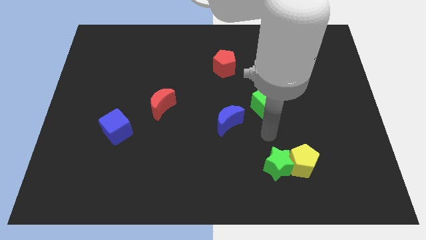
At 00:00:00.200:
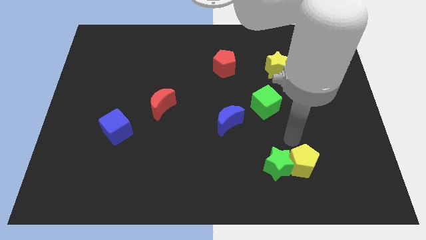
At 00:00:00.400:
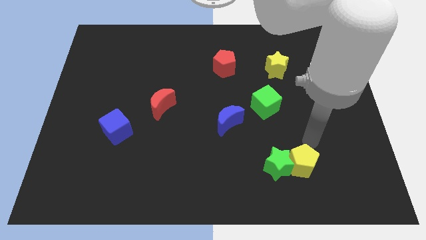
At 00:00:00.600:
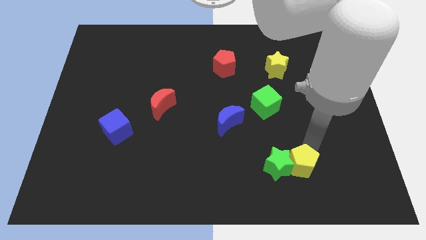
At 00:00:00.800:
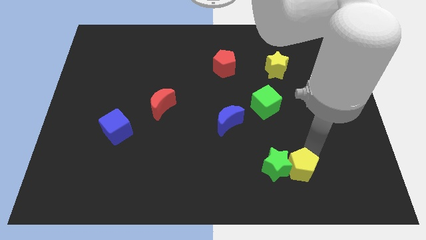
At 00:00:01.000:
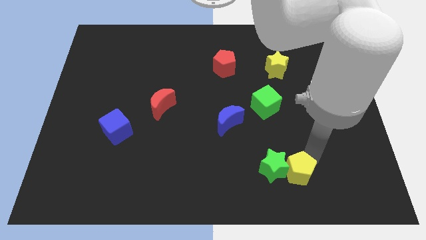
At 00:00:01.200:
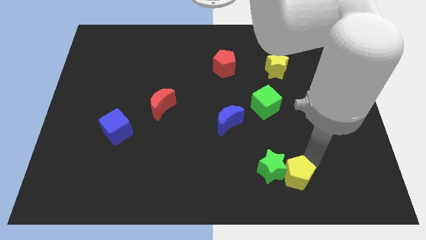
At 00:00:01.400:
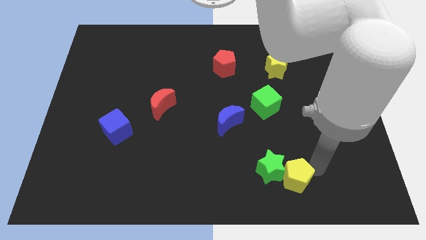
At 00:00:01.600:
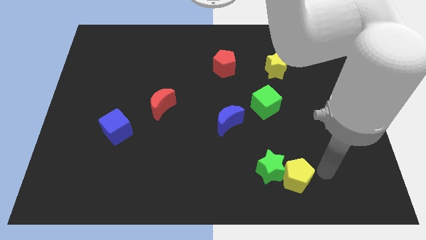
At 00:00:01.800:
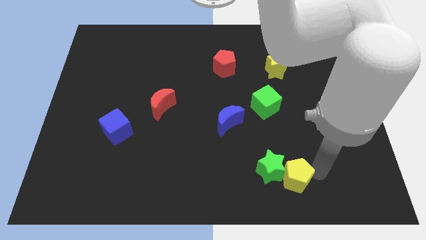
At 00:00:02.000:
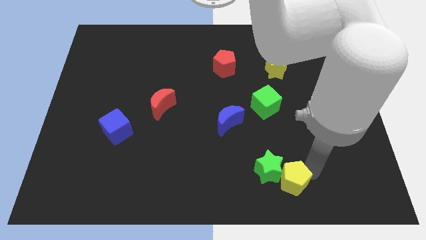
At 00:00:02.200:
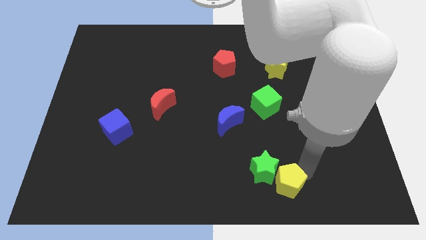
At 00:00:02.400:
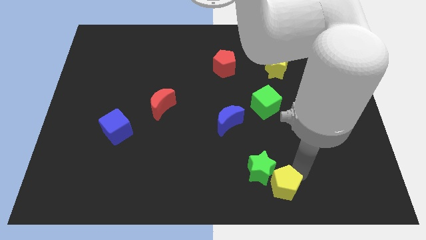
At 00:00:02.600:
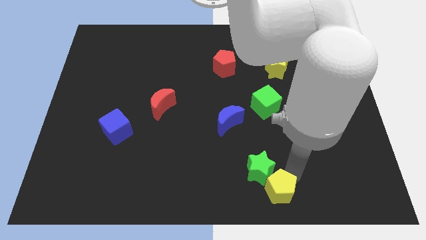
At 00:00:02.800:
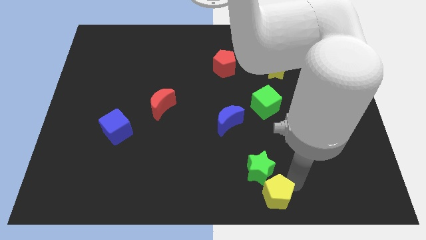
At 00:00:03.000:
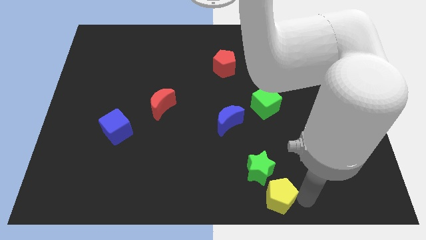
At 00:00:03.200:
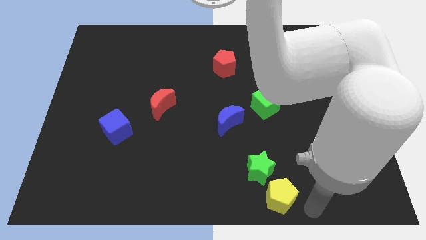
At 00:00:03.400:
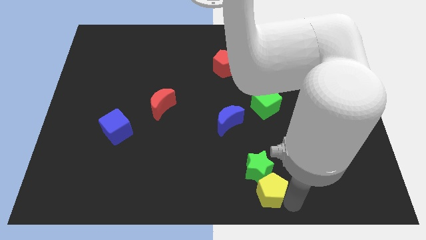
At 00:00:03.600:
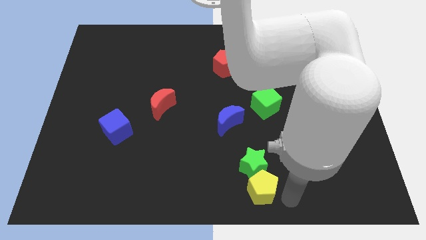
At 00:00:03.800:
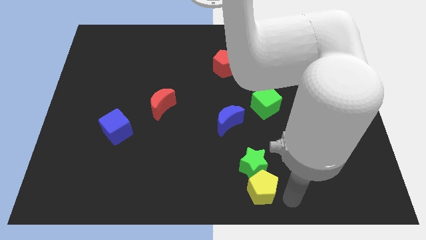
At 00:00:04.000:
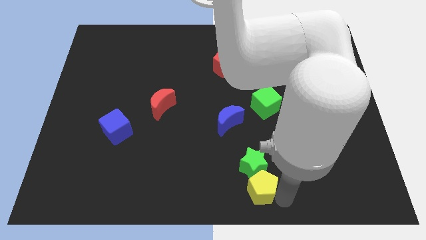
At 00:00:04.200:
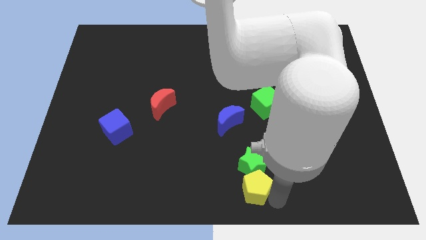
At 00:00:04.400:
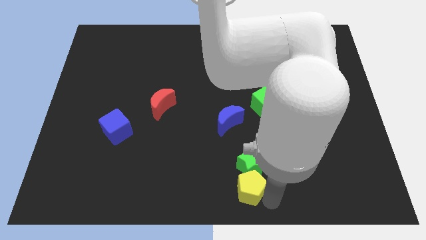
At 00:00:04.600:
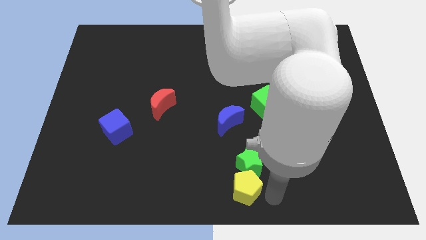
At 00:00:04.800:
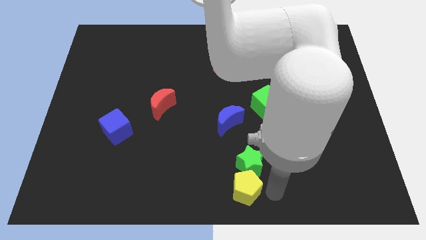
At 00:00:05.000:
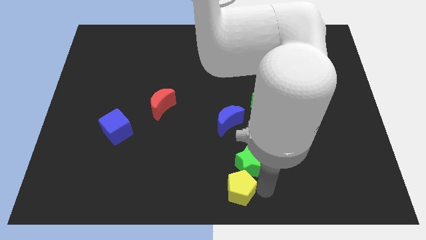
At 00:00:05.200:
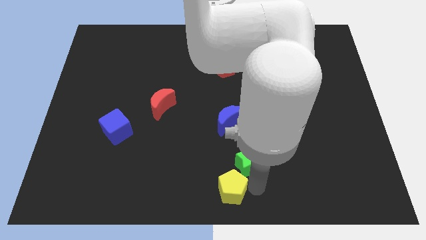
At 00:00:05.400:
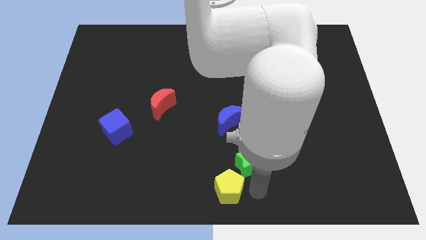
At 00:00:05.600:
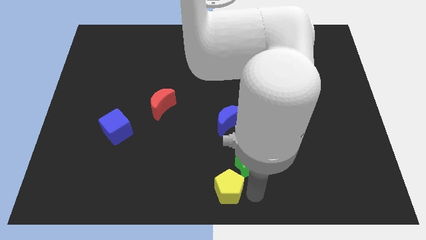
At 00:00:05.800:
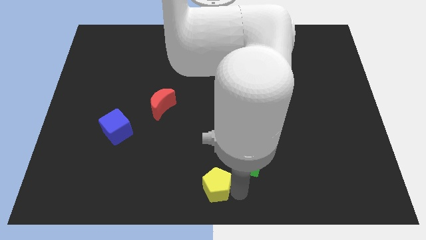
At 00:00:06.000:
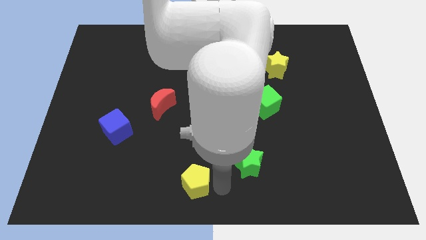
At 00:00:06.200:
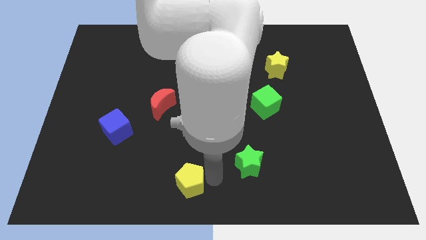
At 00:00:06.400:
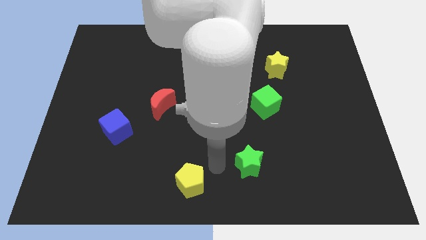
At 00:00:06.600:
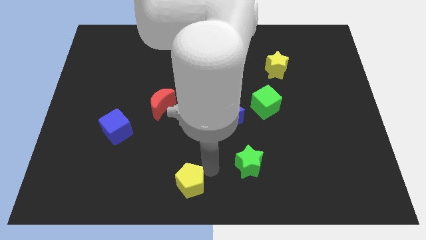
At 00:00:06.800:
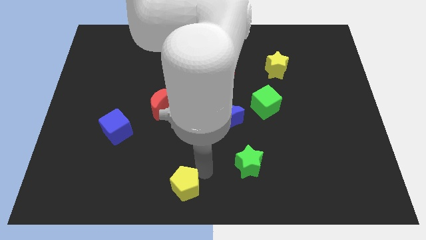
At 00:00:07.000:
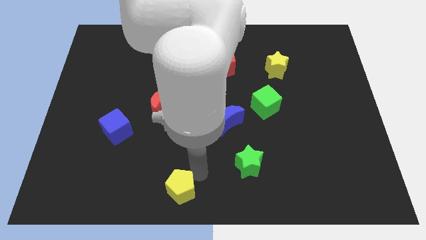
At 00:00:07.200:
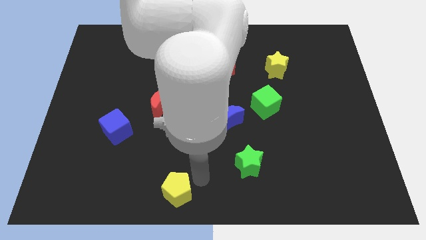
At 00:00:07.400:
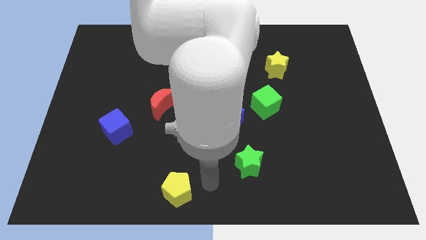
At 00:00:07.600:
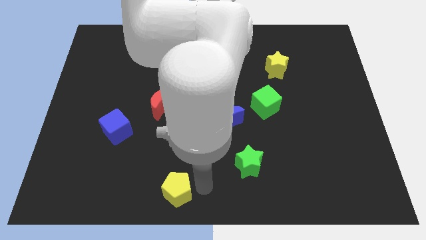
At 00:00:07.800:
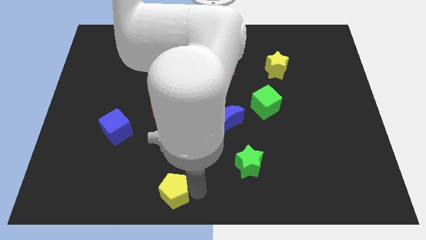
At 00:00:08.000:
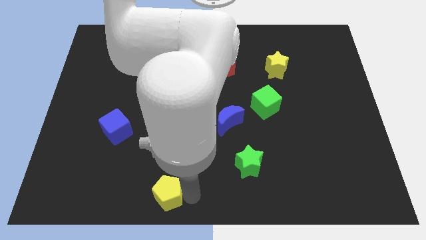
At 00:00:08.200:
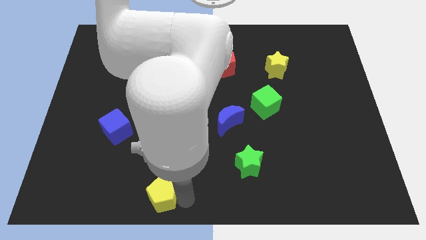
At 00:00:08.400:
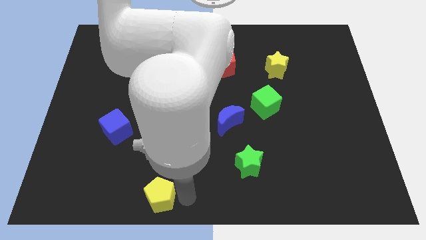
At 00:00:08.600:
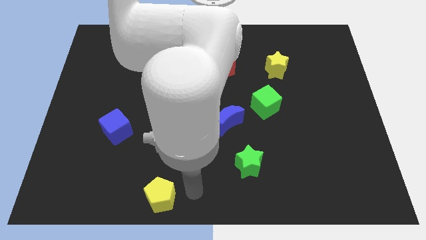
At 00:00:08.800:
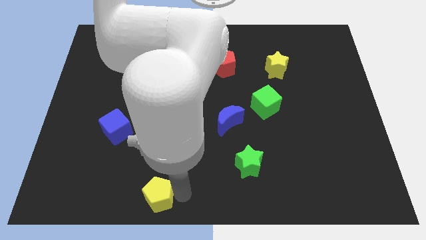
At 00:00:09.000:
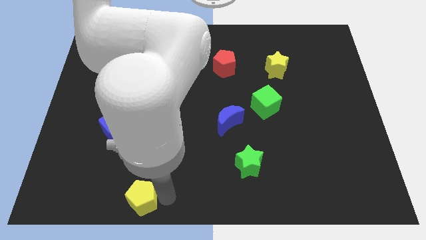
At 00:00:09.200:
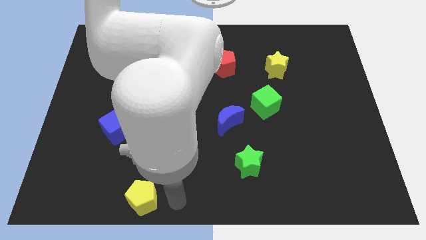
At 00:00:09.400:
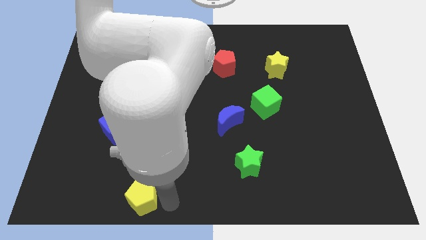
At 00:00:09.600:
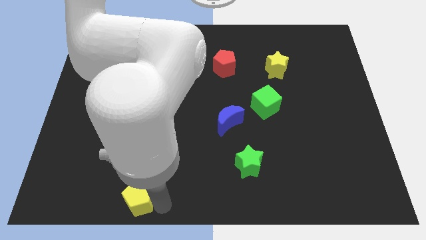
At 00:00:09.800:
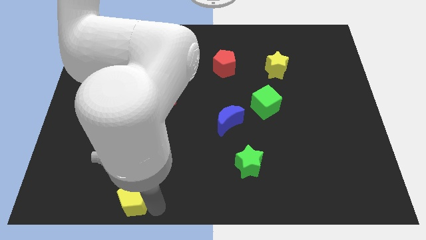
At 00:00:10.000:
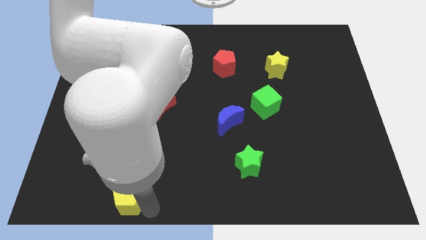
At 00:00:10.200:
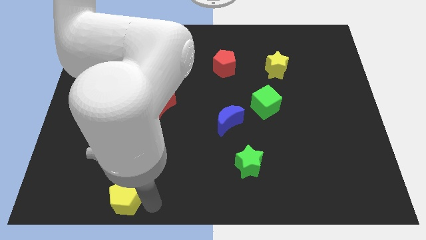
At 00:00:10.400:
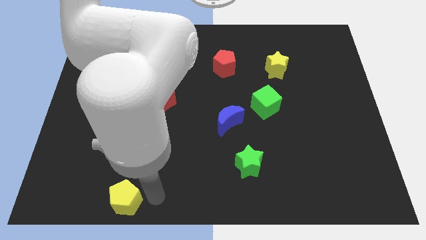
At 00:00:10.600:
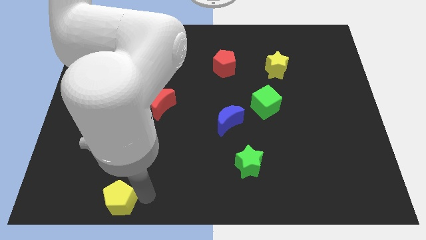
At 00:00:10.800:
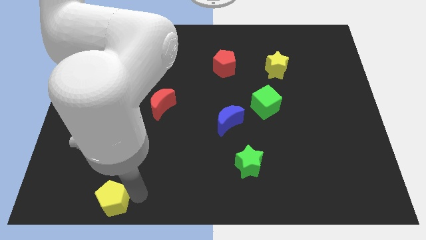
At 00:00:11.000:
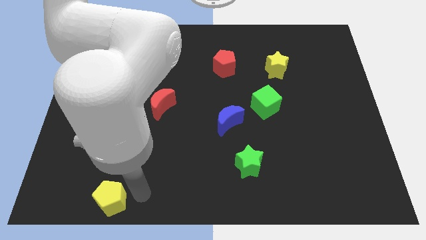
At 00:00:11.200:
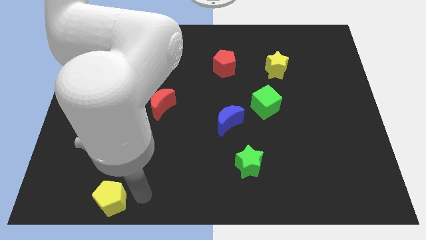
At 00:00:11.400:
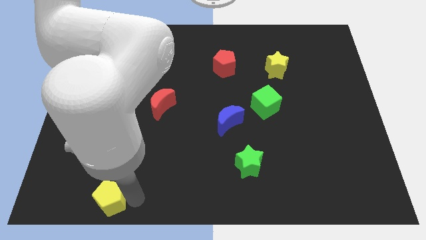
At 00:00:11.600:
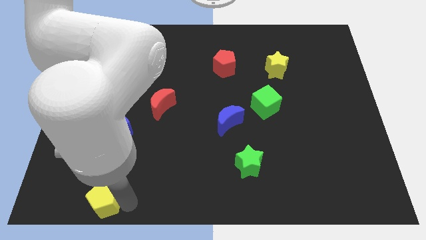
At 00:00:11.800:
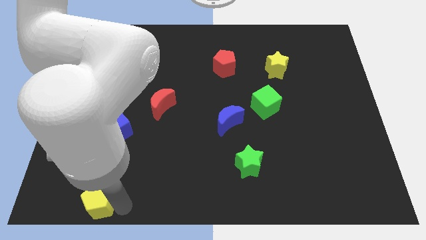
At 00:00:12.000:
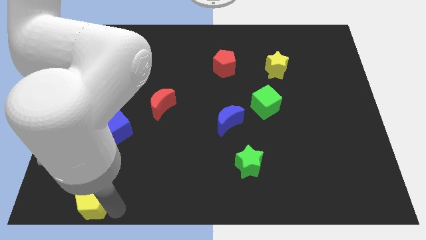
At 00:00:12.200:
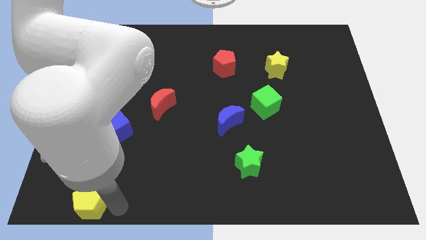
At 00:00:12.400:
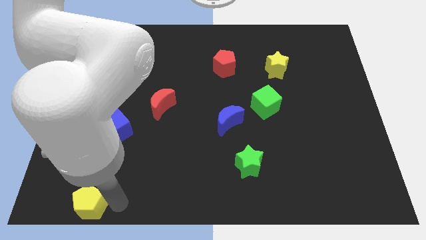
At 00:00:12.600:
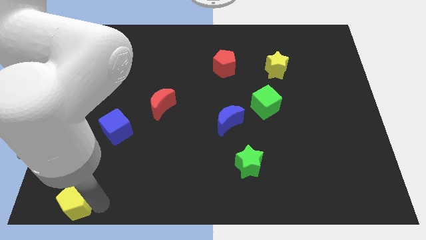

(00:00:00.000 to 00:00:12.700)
slide the yellow pentagon to the bottom left of the board
